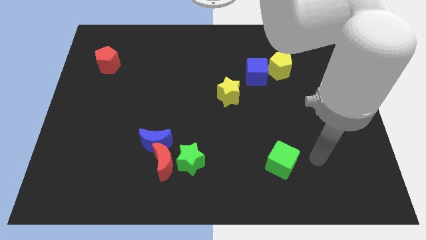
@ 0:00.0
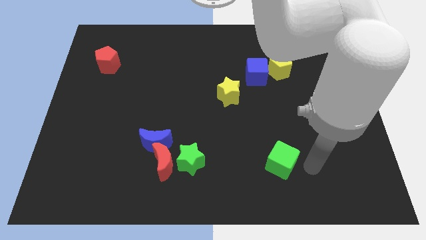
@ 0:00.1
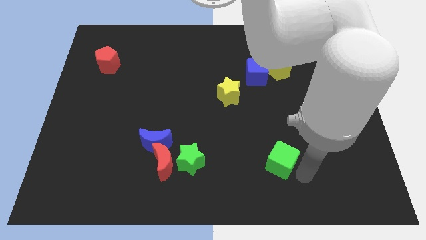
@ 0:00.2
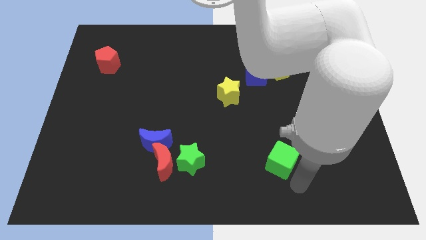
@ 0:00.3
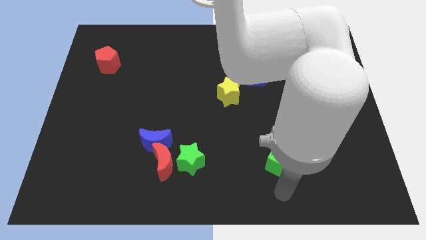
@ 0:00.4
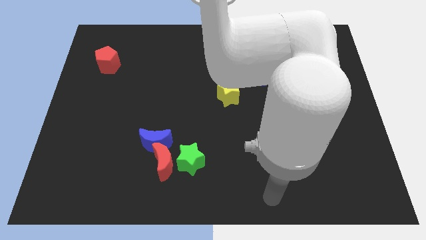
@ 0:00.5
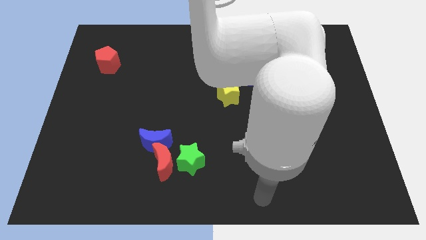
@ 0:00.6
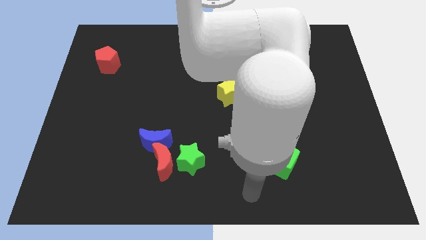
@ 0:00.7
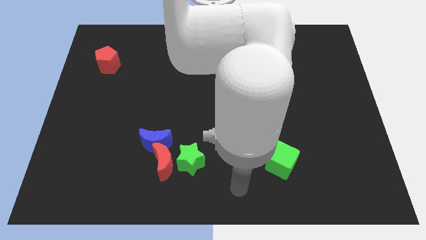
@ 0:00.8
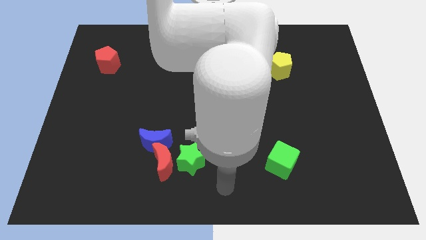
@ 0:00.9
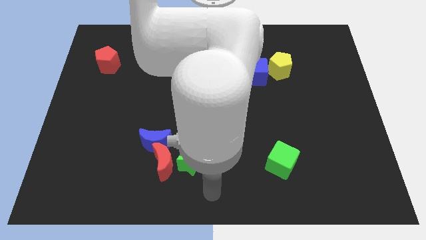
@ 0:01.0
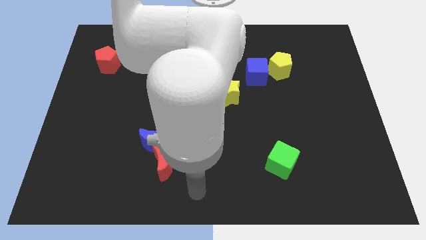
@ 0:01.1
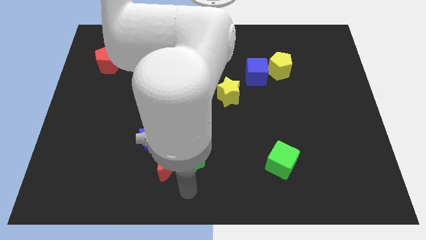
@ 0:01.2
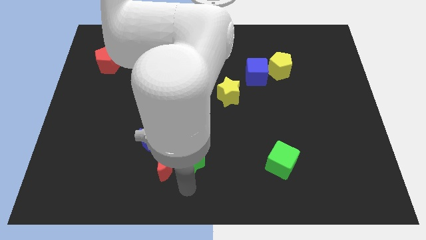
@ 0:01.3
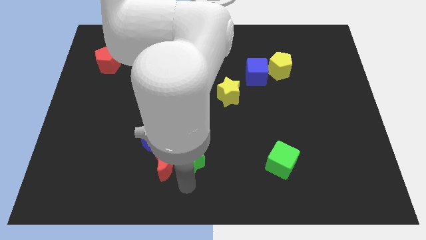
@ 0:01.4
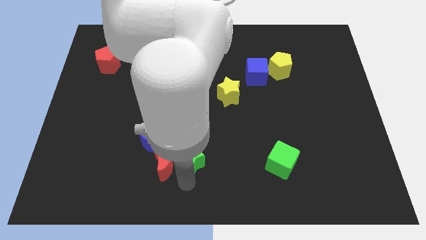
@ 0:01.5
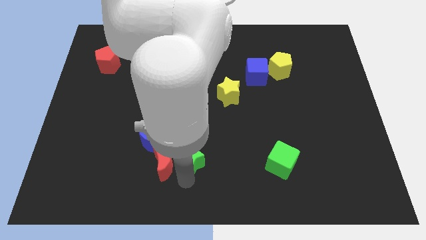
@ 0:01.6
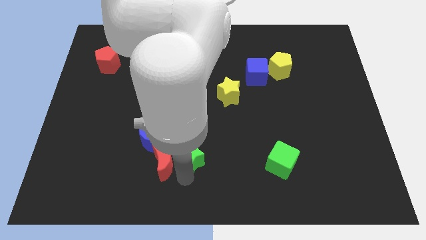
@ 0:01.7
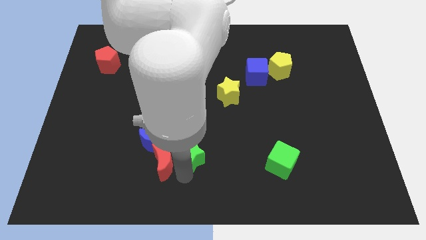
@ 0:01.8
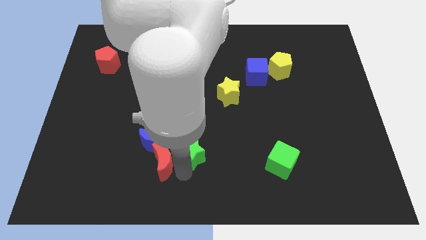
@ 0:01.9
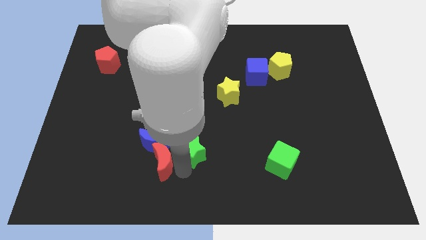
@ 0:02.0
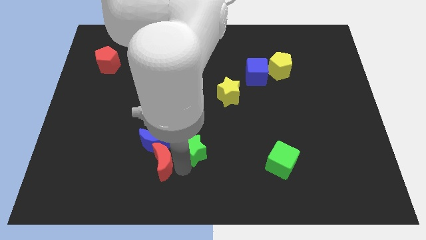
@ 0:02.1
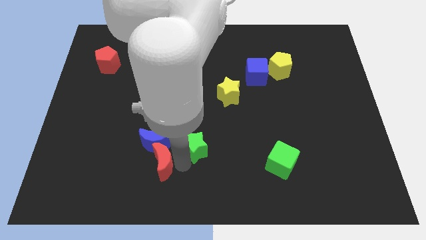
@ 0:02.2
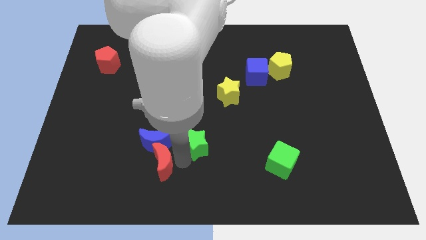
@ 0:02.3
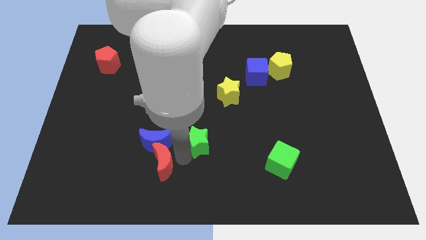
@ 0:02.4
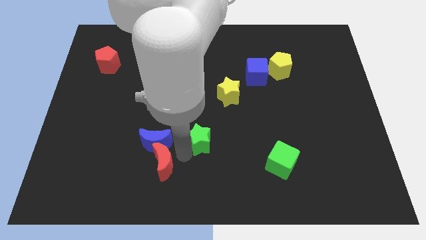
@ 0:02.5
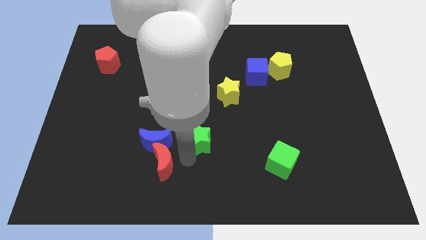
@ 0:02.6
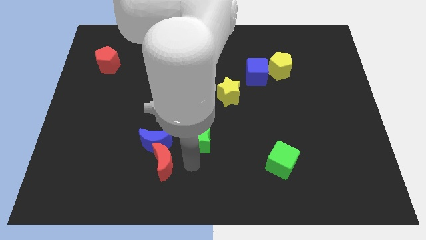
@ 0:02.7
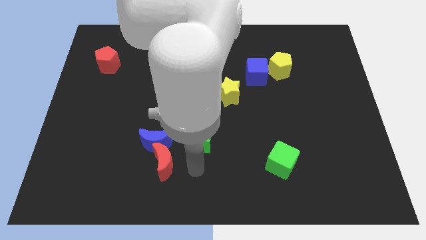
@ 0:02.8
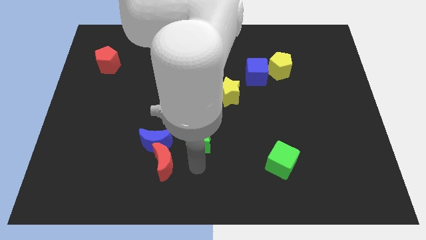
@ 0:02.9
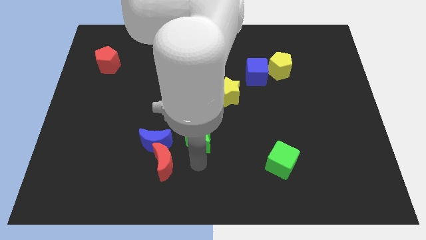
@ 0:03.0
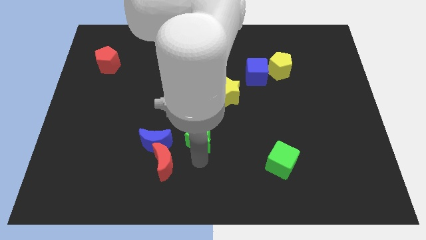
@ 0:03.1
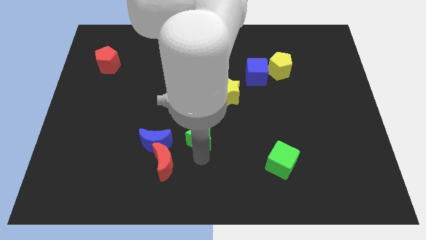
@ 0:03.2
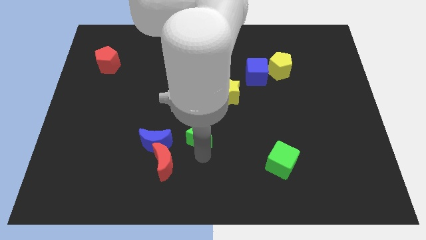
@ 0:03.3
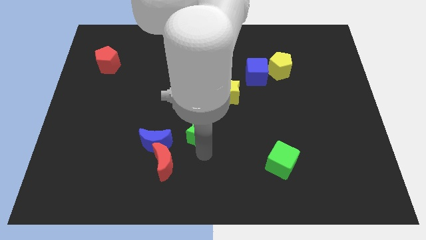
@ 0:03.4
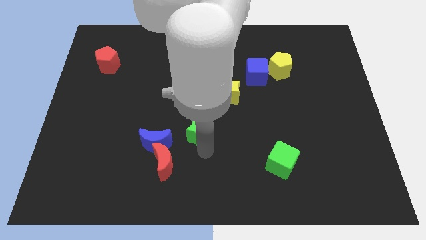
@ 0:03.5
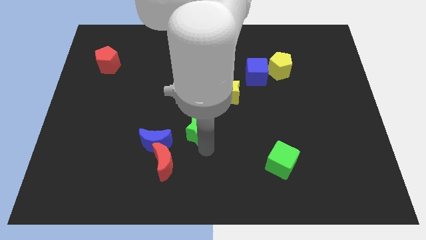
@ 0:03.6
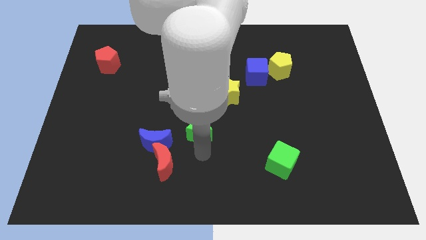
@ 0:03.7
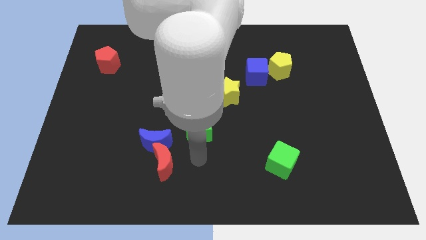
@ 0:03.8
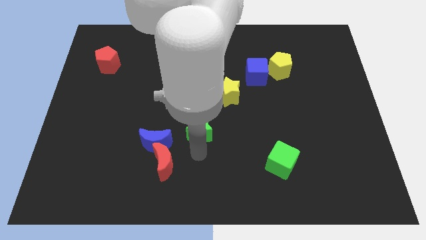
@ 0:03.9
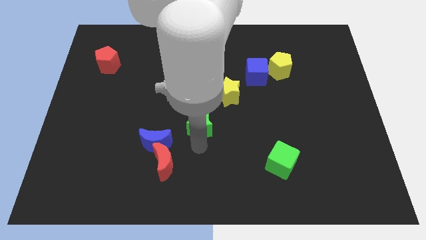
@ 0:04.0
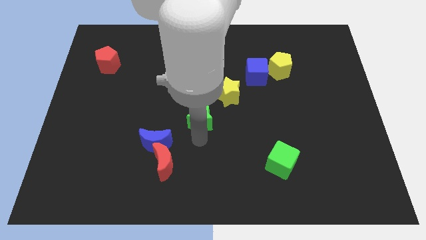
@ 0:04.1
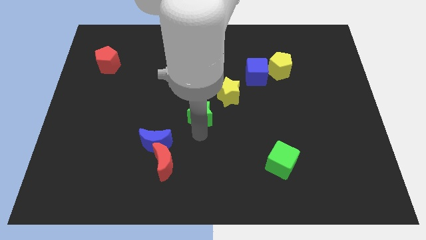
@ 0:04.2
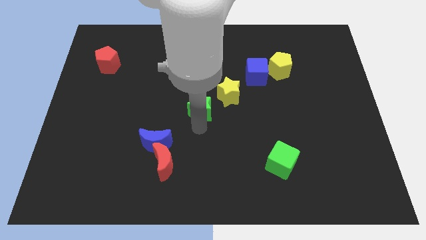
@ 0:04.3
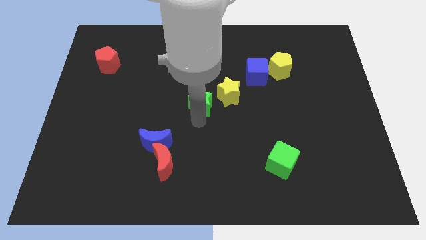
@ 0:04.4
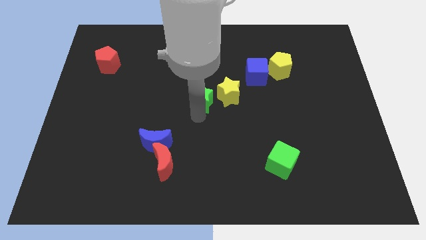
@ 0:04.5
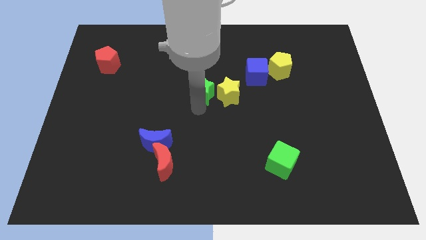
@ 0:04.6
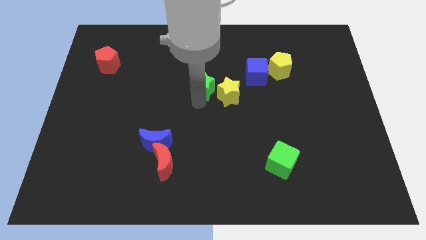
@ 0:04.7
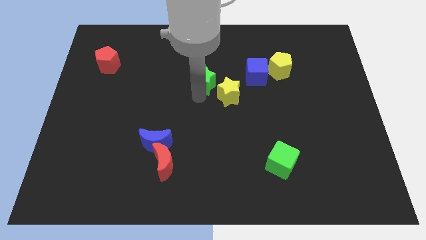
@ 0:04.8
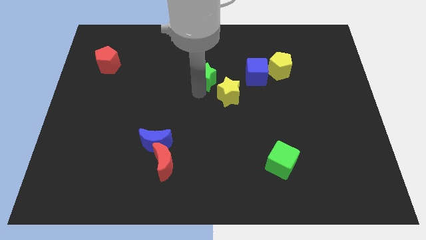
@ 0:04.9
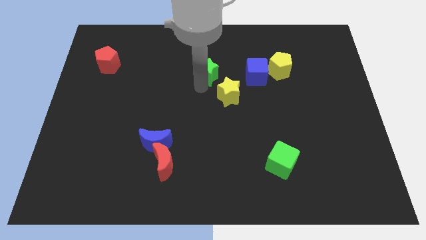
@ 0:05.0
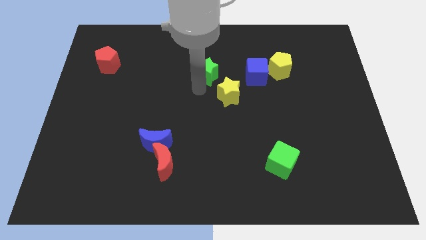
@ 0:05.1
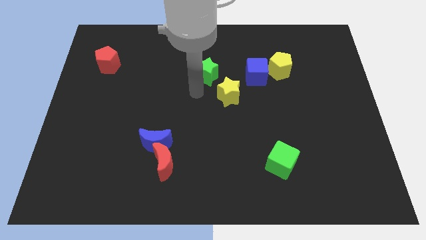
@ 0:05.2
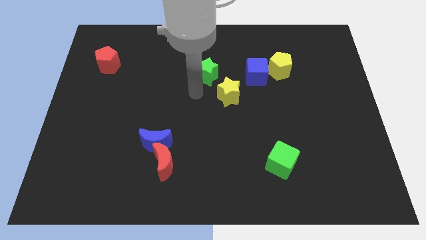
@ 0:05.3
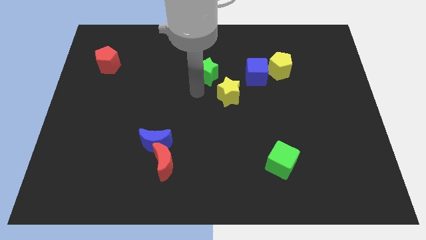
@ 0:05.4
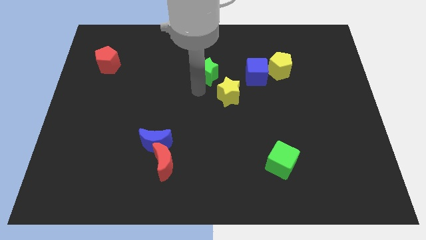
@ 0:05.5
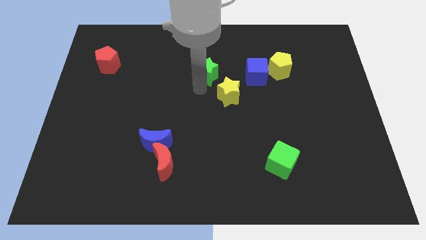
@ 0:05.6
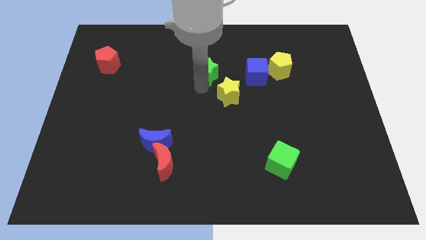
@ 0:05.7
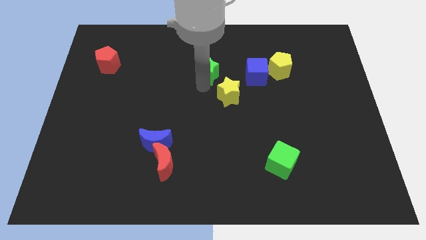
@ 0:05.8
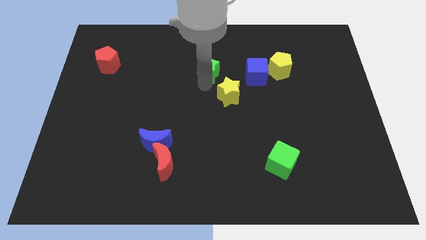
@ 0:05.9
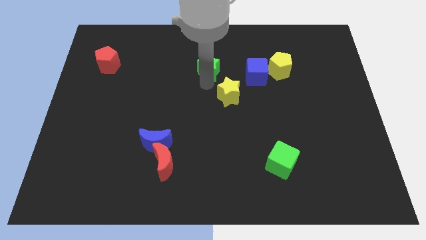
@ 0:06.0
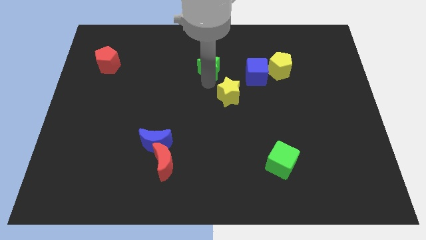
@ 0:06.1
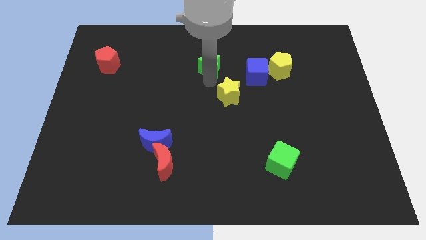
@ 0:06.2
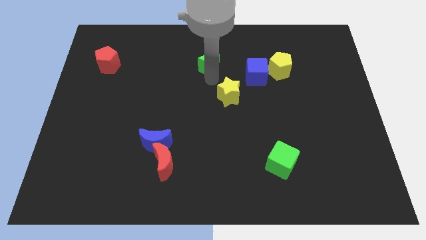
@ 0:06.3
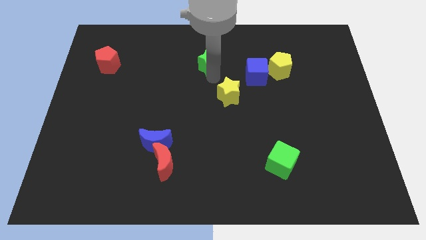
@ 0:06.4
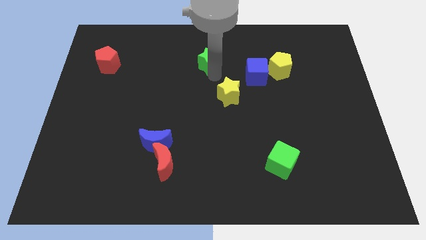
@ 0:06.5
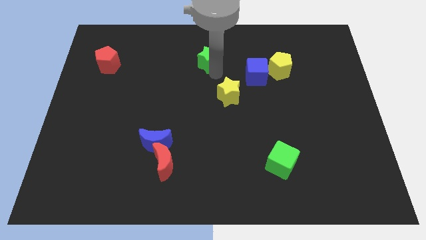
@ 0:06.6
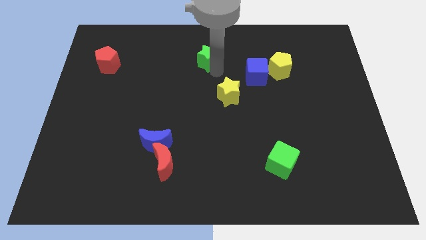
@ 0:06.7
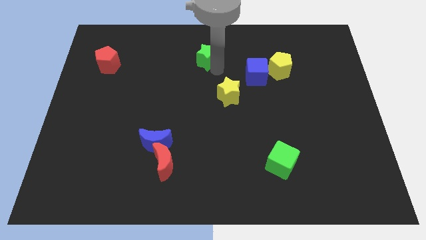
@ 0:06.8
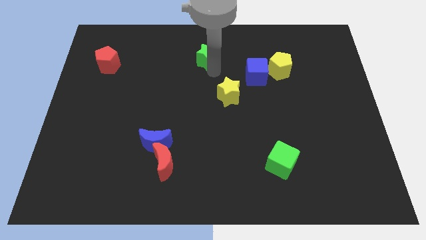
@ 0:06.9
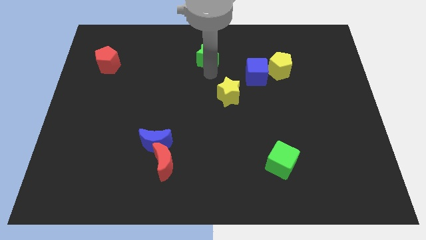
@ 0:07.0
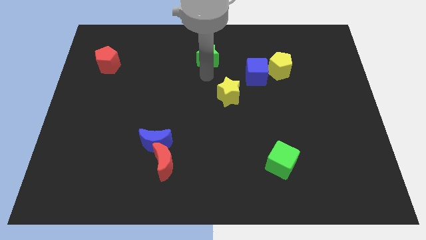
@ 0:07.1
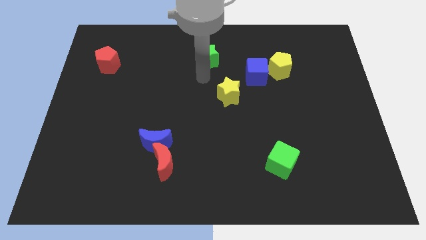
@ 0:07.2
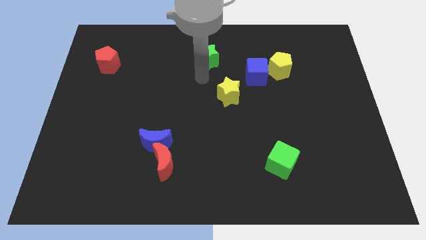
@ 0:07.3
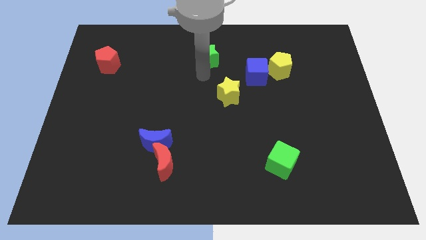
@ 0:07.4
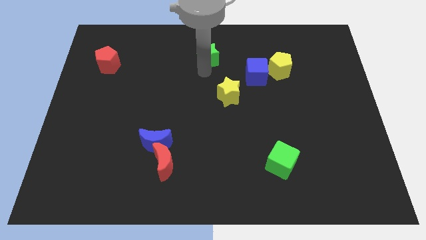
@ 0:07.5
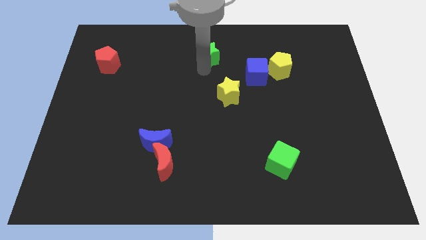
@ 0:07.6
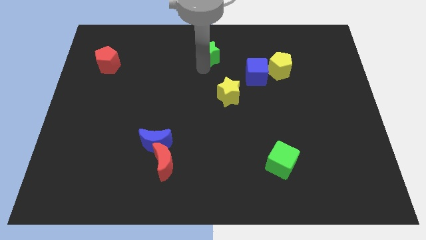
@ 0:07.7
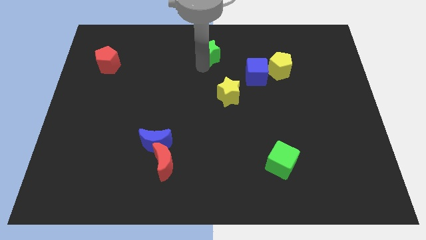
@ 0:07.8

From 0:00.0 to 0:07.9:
put the green star to the top
